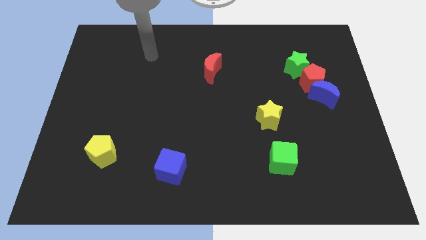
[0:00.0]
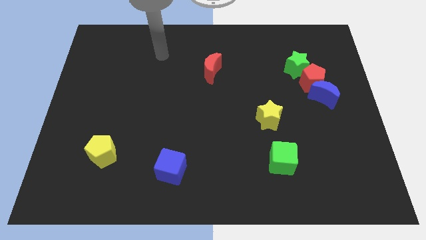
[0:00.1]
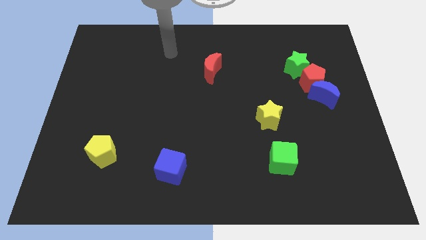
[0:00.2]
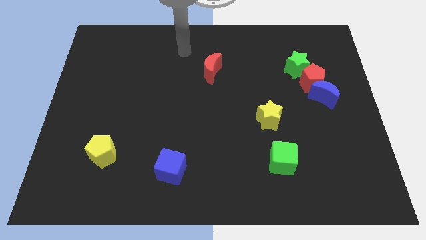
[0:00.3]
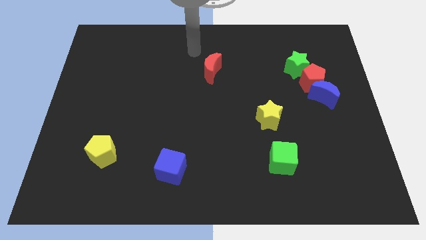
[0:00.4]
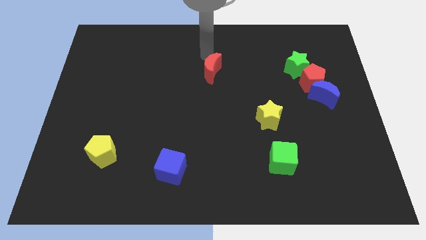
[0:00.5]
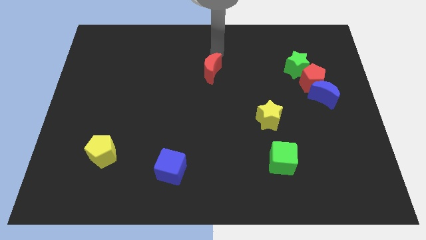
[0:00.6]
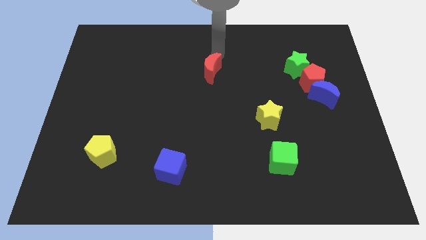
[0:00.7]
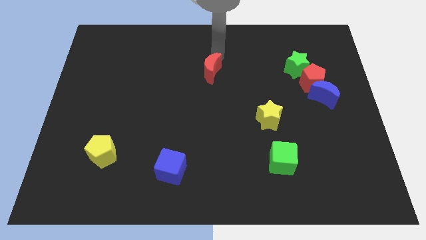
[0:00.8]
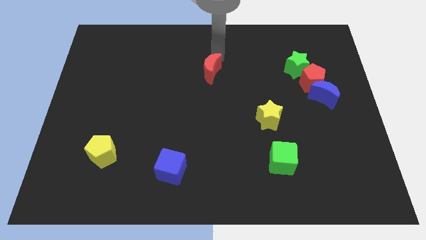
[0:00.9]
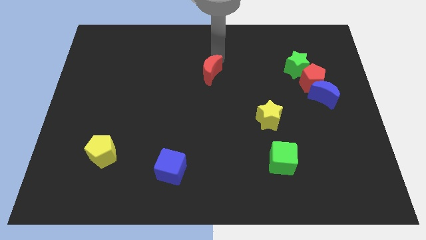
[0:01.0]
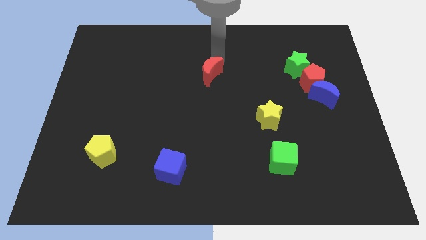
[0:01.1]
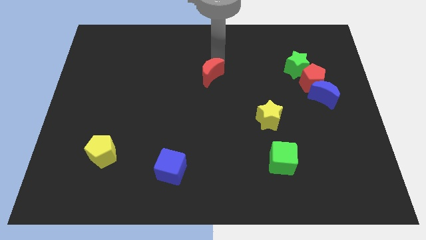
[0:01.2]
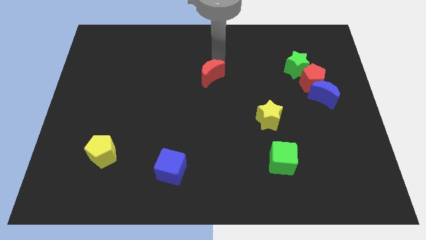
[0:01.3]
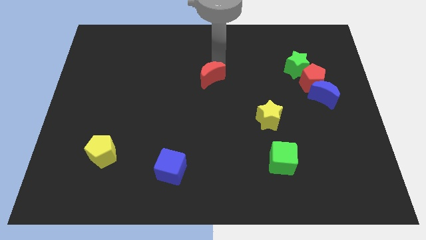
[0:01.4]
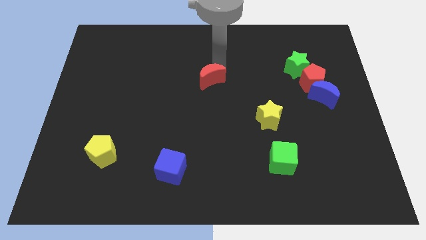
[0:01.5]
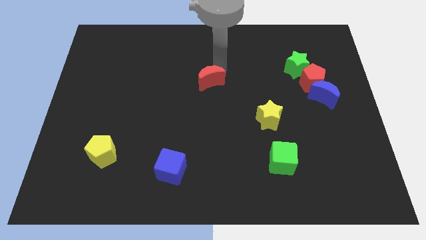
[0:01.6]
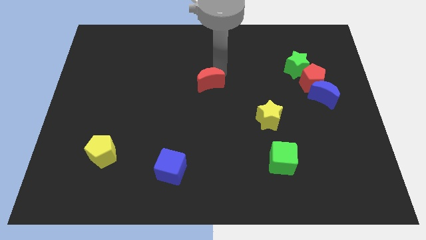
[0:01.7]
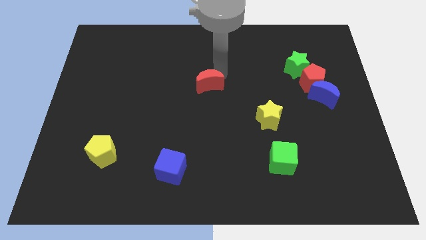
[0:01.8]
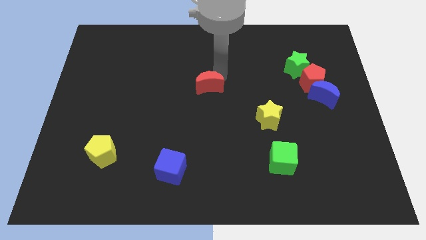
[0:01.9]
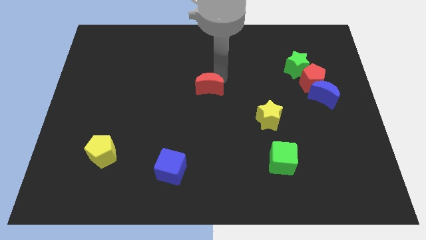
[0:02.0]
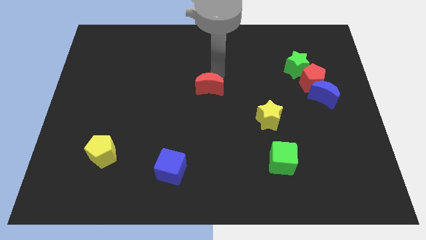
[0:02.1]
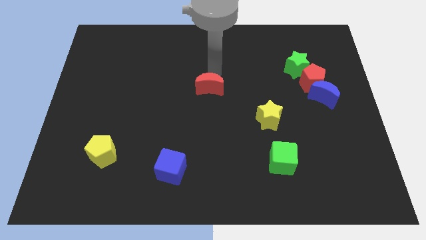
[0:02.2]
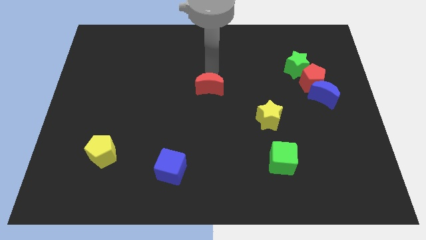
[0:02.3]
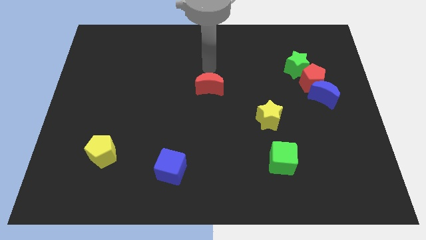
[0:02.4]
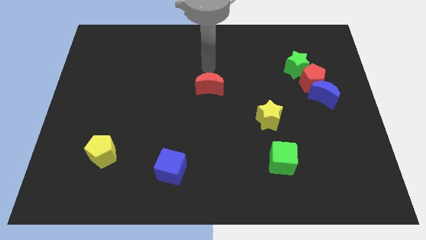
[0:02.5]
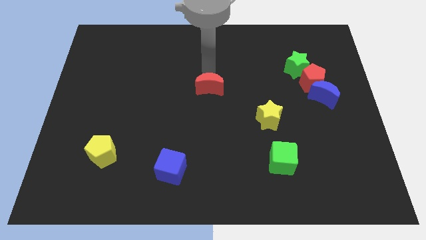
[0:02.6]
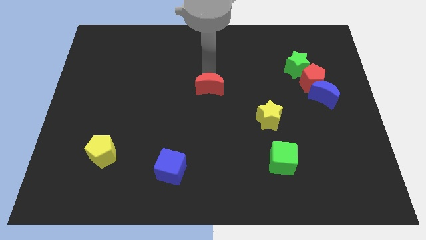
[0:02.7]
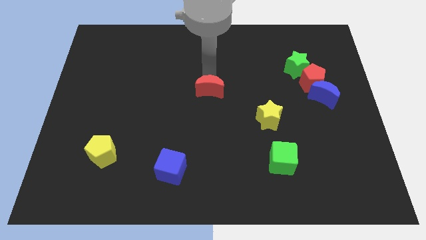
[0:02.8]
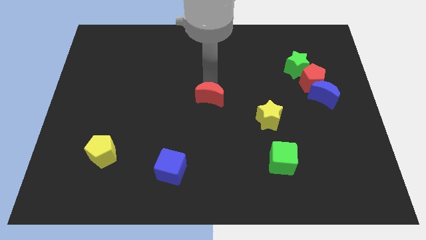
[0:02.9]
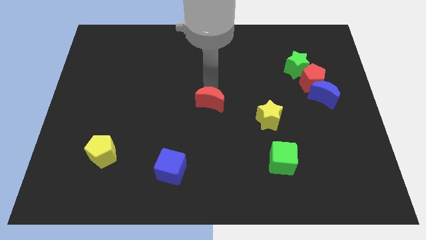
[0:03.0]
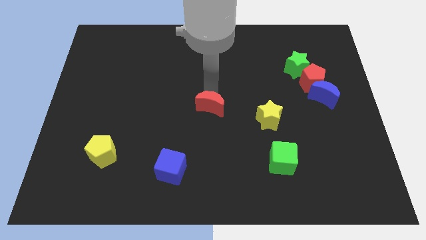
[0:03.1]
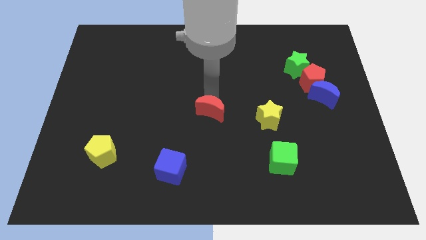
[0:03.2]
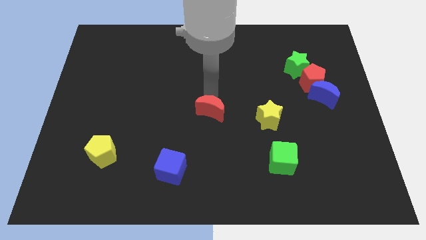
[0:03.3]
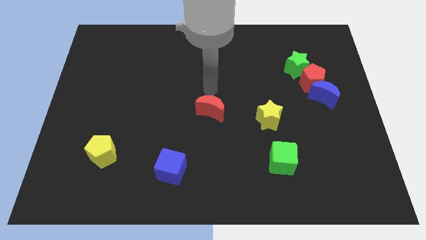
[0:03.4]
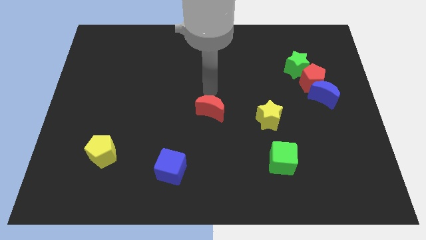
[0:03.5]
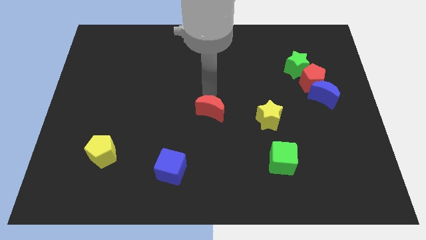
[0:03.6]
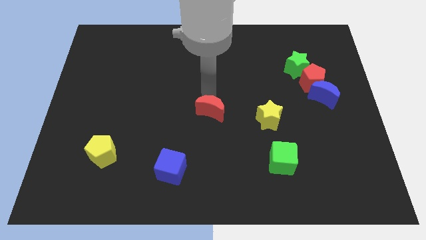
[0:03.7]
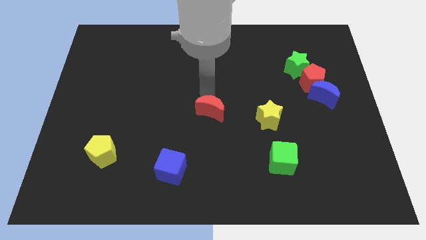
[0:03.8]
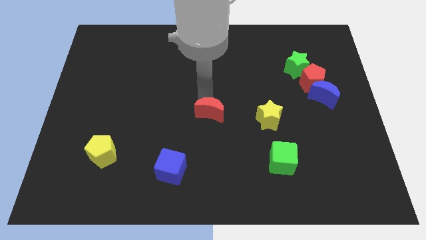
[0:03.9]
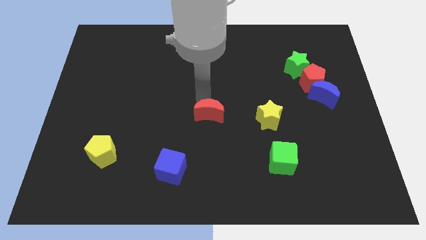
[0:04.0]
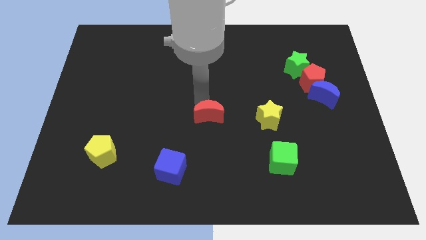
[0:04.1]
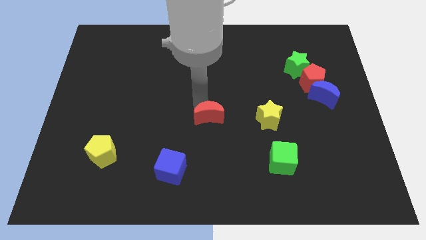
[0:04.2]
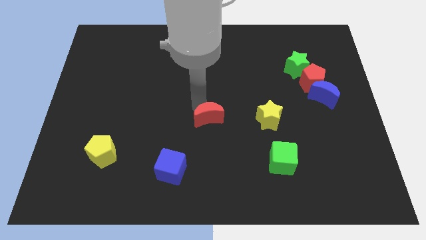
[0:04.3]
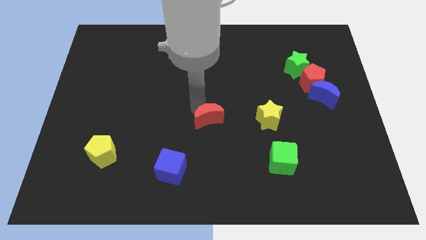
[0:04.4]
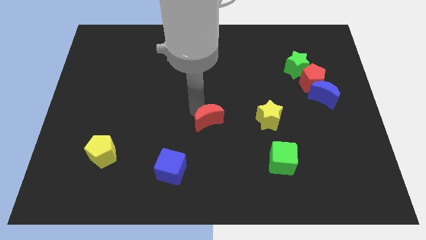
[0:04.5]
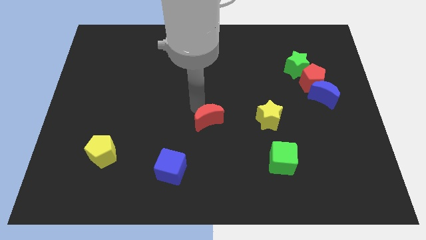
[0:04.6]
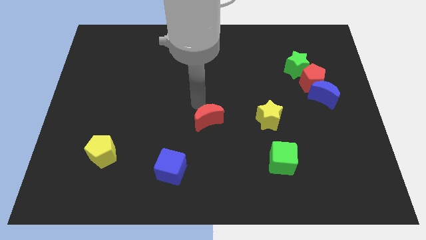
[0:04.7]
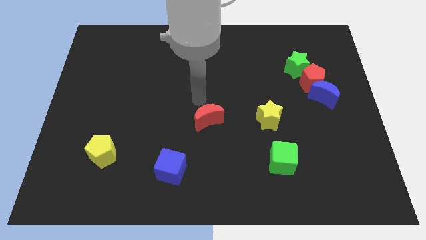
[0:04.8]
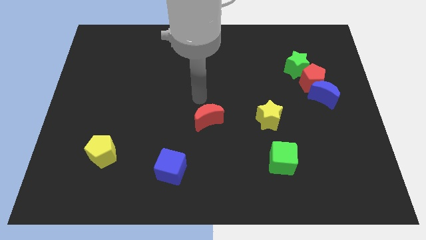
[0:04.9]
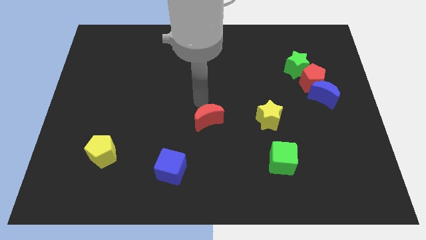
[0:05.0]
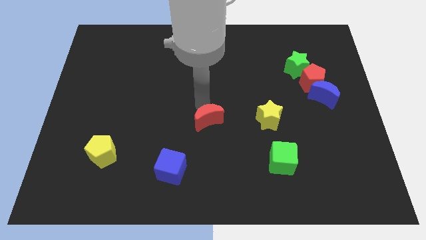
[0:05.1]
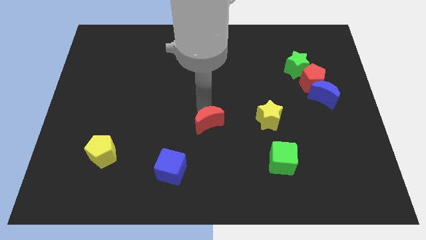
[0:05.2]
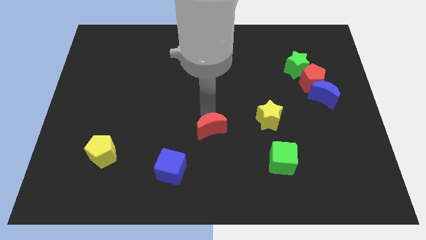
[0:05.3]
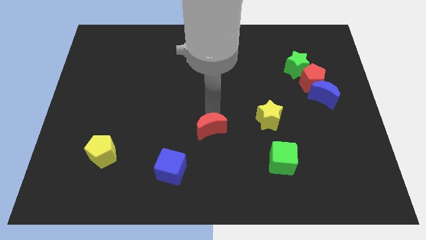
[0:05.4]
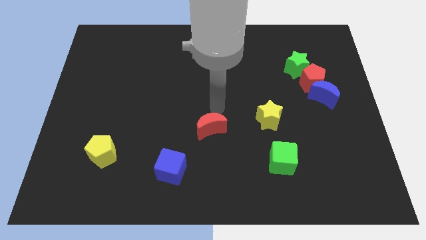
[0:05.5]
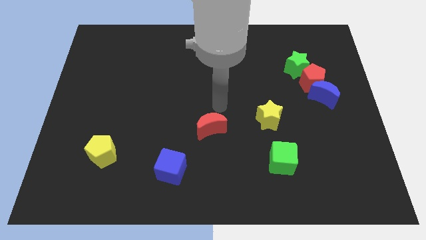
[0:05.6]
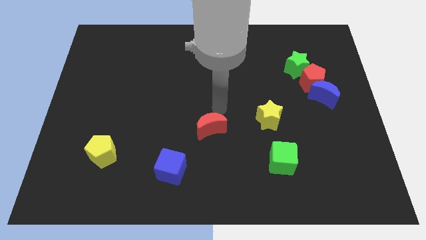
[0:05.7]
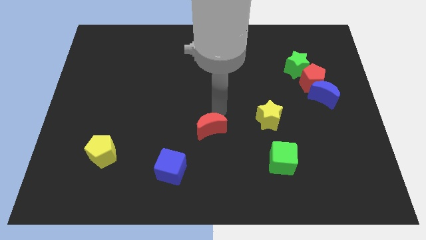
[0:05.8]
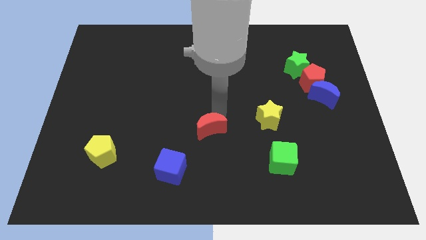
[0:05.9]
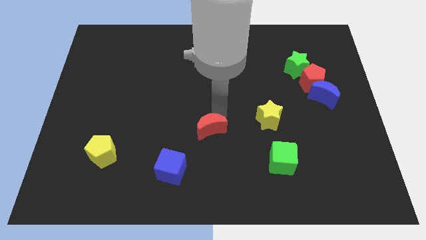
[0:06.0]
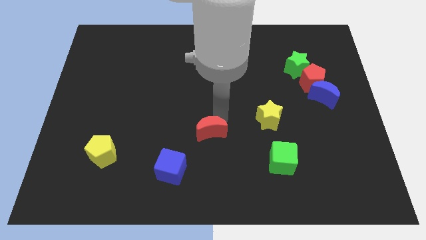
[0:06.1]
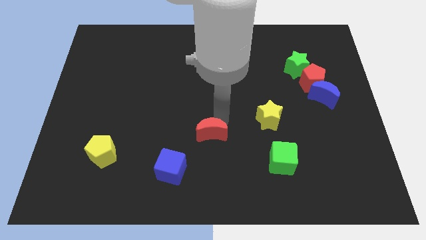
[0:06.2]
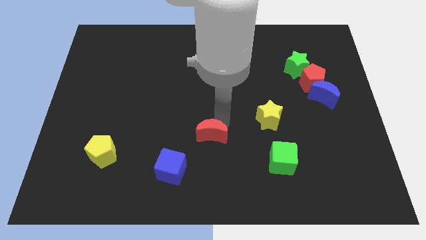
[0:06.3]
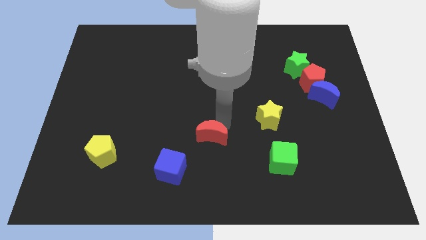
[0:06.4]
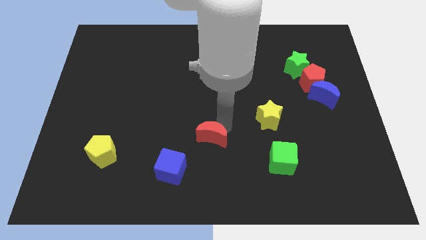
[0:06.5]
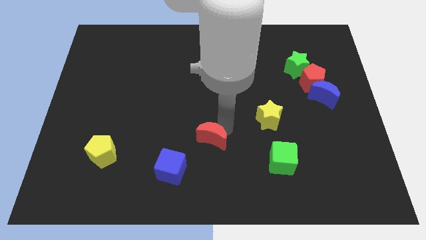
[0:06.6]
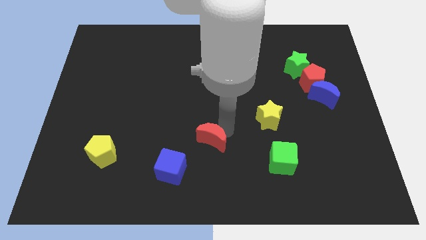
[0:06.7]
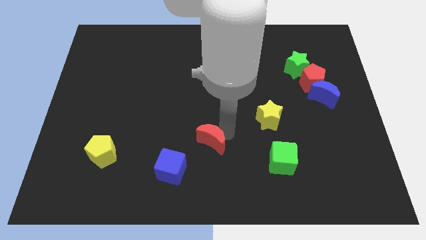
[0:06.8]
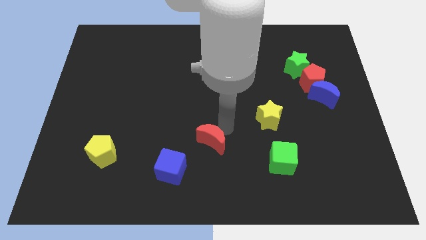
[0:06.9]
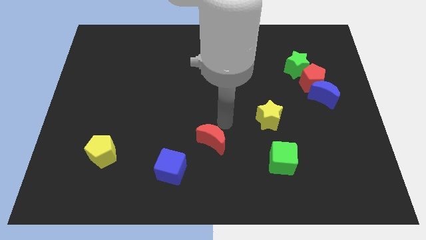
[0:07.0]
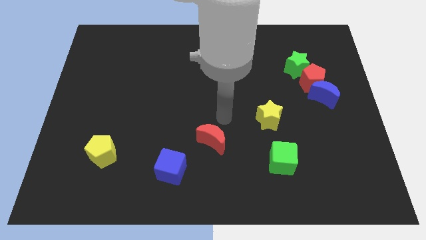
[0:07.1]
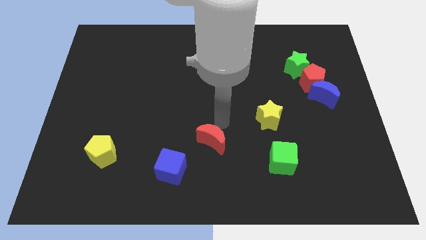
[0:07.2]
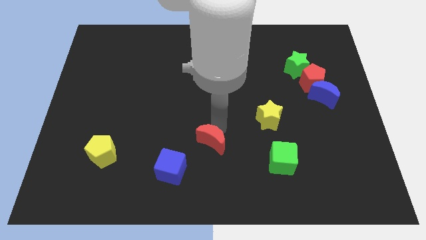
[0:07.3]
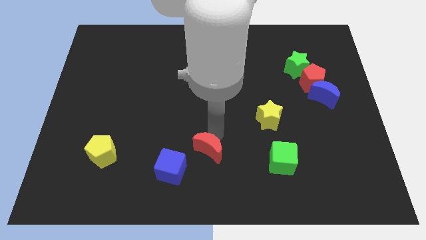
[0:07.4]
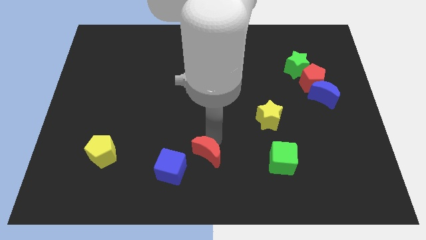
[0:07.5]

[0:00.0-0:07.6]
slide the red moon to the bottom side
